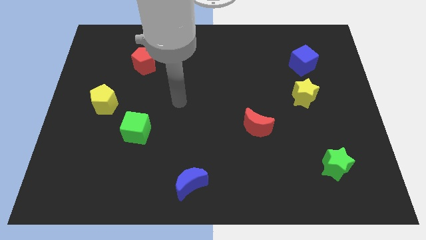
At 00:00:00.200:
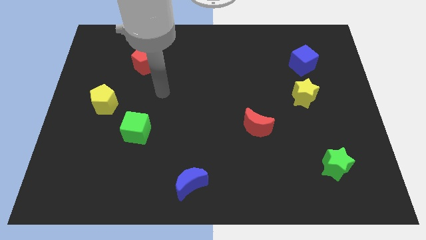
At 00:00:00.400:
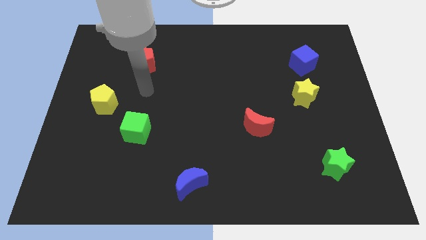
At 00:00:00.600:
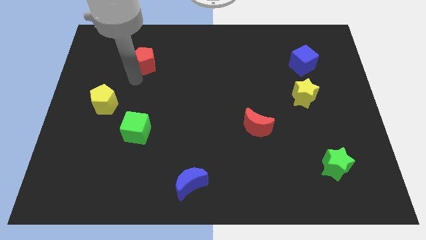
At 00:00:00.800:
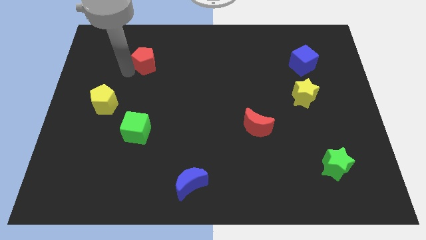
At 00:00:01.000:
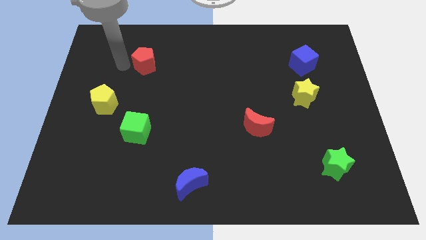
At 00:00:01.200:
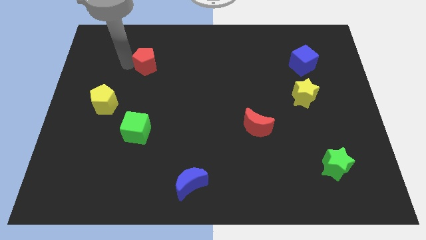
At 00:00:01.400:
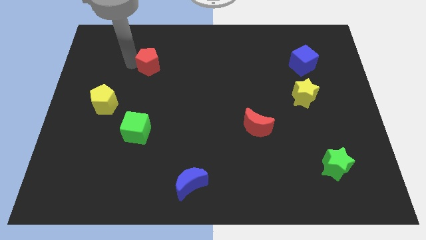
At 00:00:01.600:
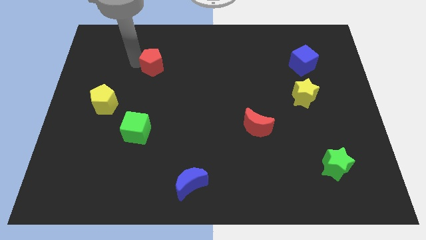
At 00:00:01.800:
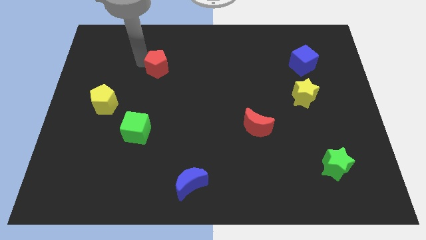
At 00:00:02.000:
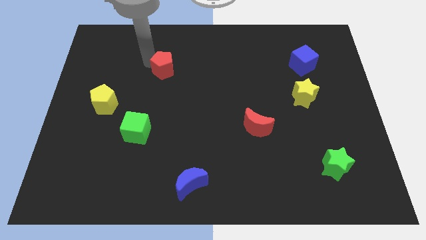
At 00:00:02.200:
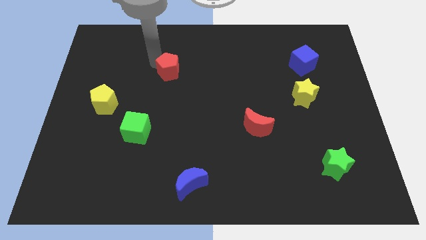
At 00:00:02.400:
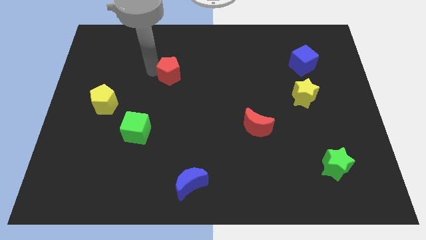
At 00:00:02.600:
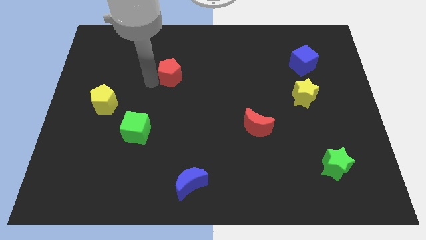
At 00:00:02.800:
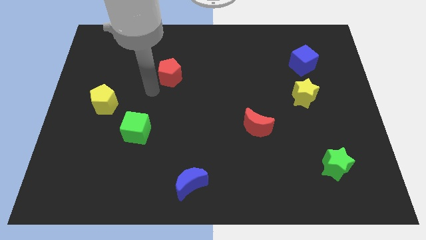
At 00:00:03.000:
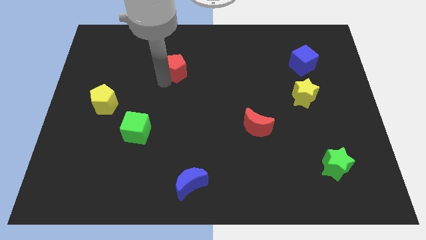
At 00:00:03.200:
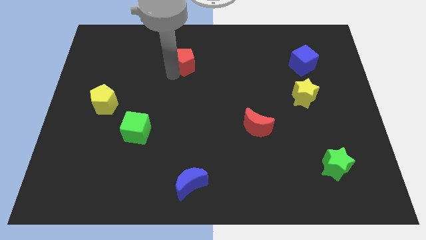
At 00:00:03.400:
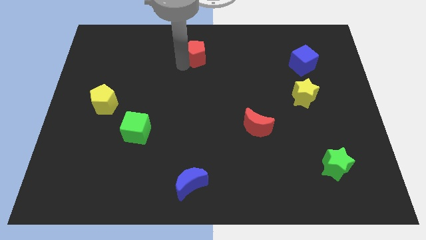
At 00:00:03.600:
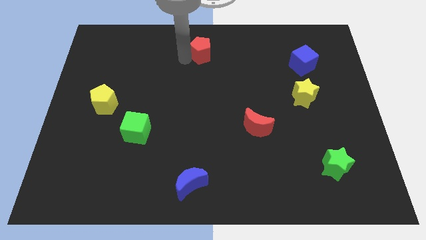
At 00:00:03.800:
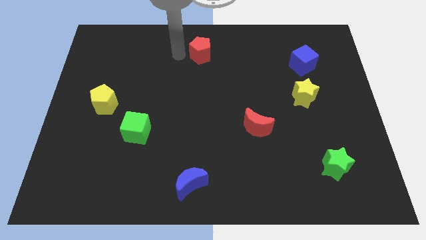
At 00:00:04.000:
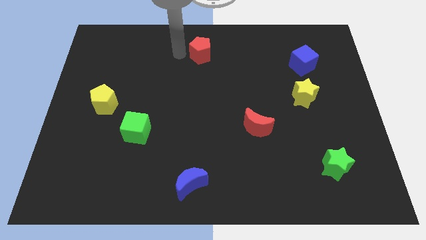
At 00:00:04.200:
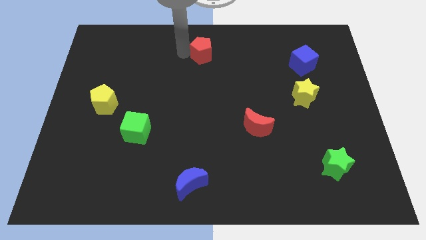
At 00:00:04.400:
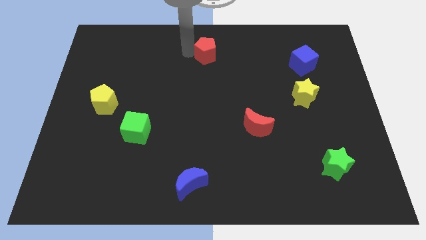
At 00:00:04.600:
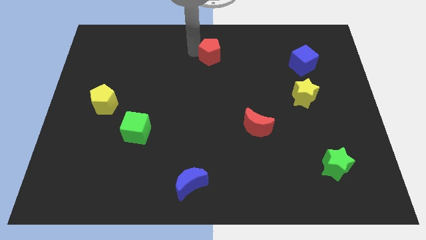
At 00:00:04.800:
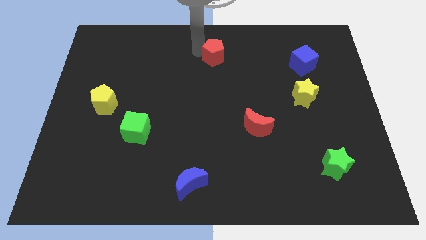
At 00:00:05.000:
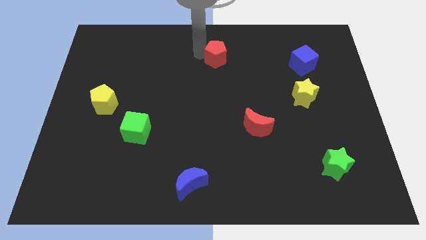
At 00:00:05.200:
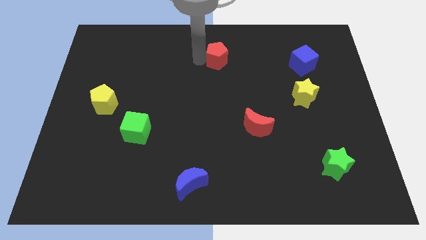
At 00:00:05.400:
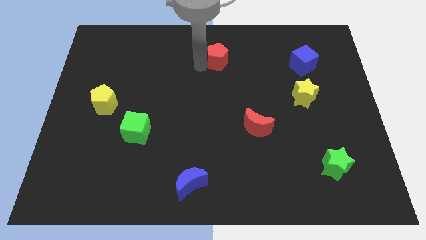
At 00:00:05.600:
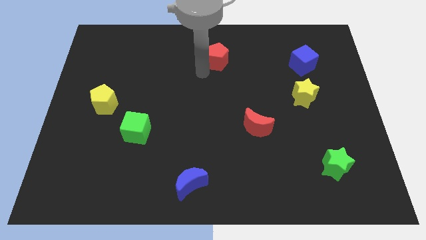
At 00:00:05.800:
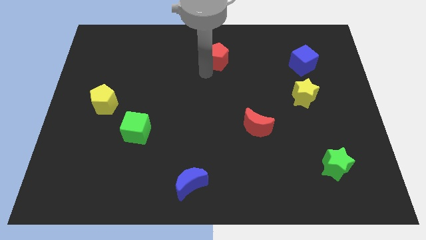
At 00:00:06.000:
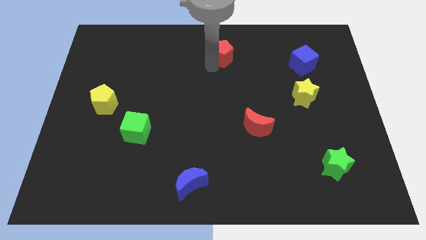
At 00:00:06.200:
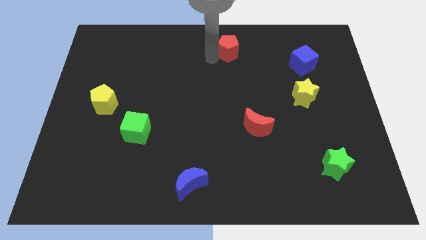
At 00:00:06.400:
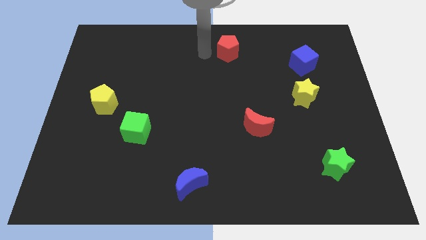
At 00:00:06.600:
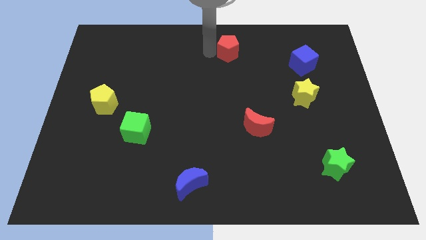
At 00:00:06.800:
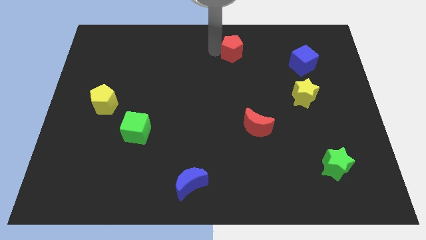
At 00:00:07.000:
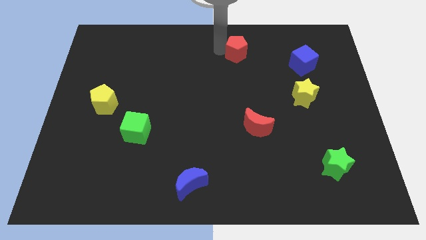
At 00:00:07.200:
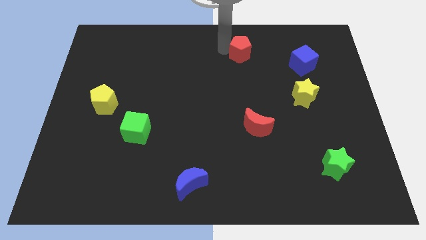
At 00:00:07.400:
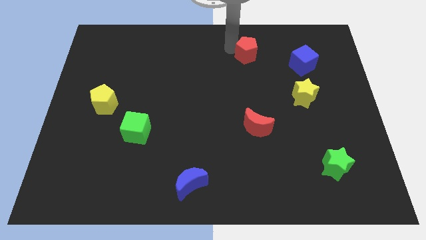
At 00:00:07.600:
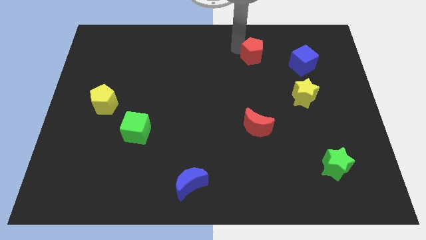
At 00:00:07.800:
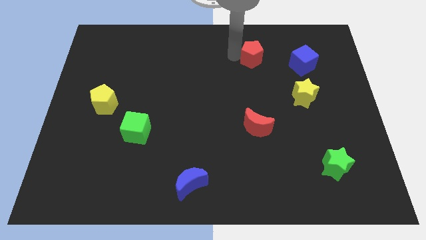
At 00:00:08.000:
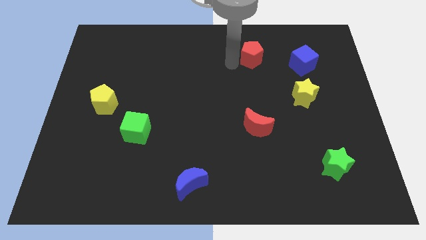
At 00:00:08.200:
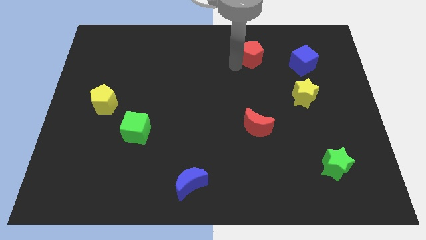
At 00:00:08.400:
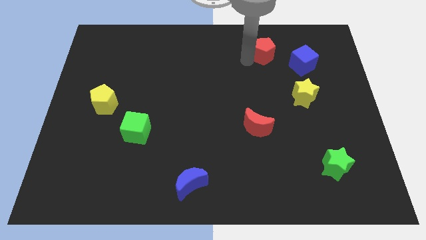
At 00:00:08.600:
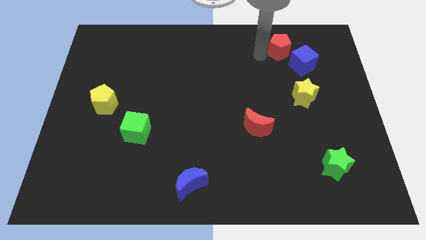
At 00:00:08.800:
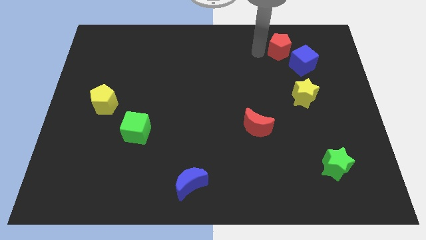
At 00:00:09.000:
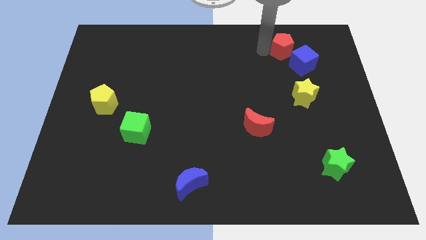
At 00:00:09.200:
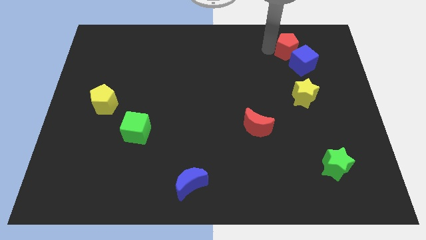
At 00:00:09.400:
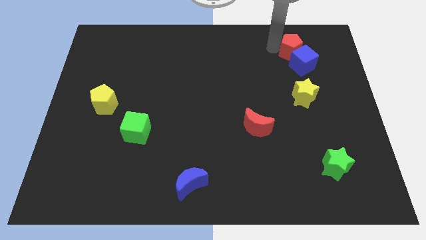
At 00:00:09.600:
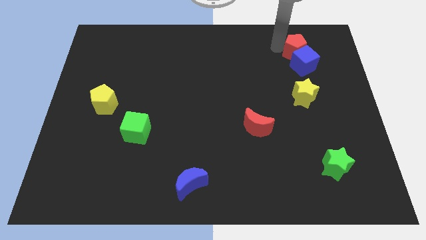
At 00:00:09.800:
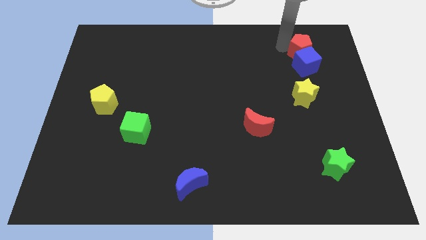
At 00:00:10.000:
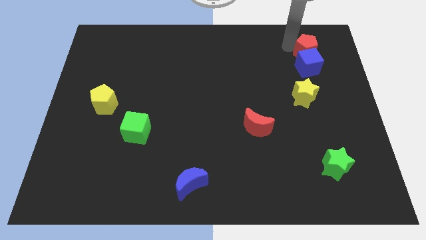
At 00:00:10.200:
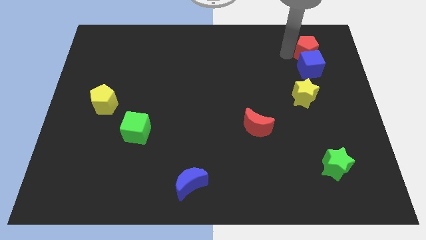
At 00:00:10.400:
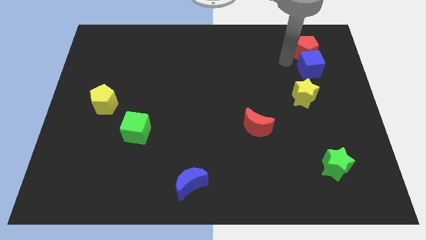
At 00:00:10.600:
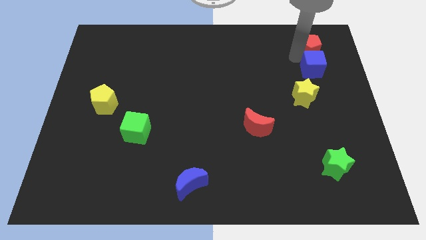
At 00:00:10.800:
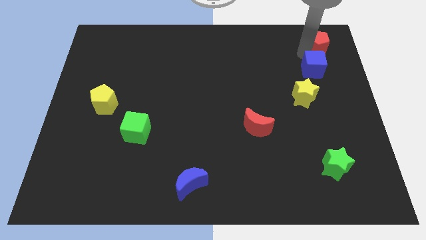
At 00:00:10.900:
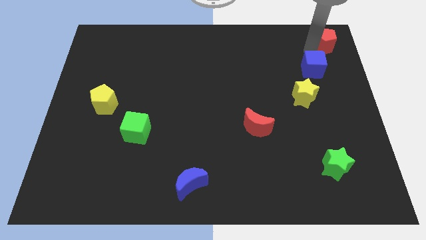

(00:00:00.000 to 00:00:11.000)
move the red pentagon to the top right of the board

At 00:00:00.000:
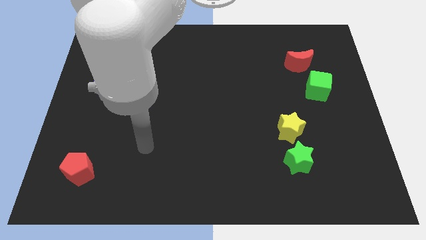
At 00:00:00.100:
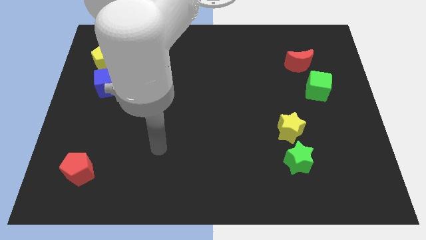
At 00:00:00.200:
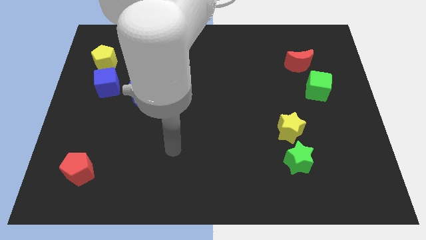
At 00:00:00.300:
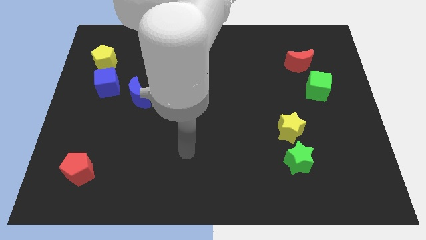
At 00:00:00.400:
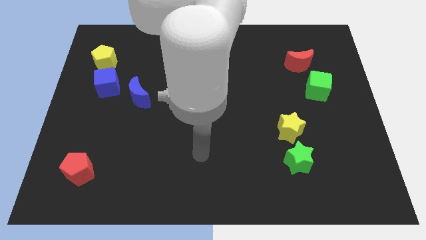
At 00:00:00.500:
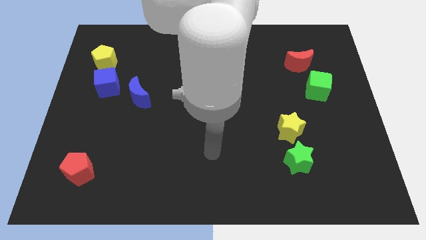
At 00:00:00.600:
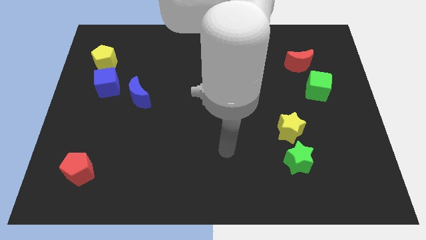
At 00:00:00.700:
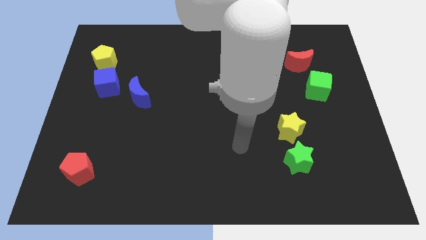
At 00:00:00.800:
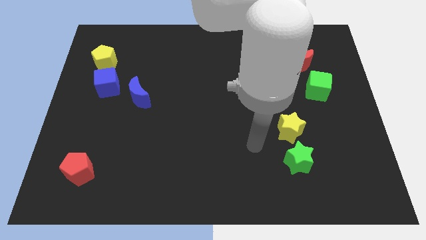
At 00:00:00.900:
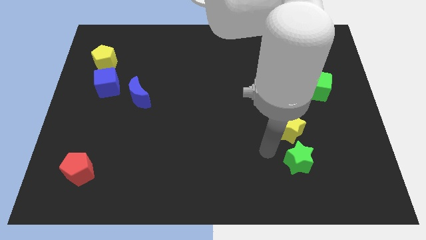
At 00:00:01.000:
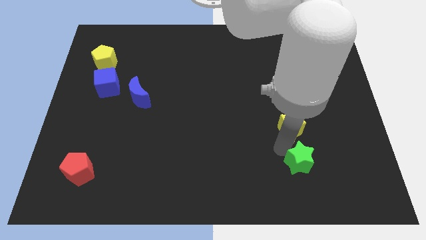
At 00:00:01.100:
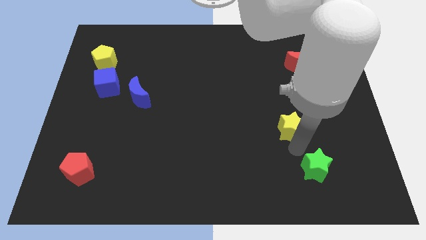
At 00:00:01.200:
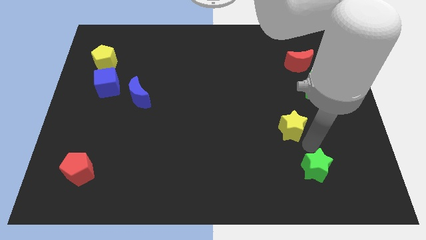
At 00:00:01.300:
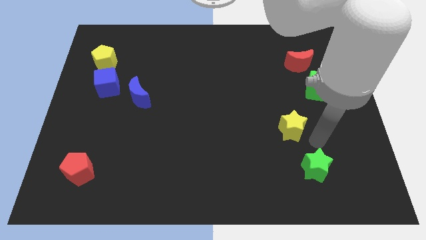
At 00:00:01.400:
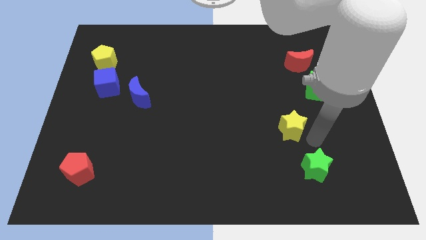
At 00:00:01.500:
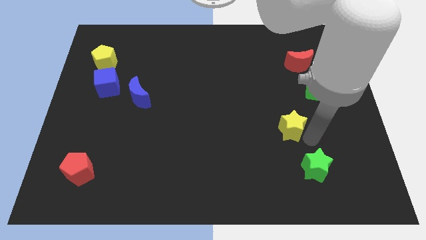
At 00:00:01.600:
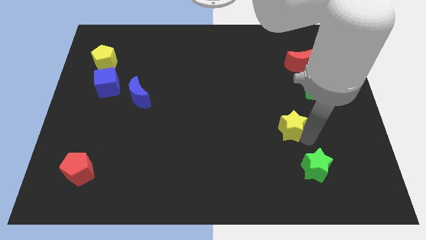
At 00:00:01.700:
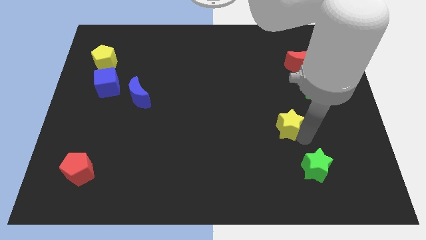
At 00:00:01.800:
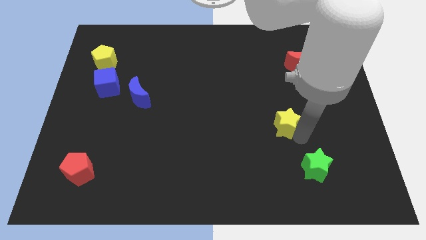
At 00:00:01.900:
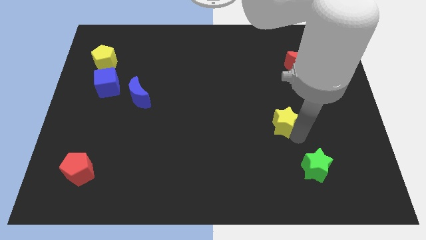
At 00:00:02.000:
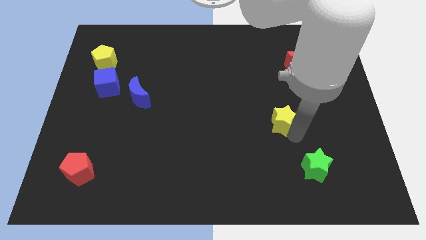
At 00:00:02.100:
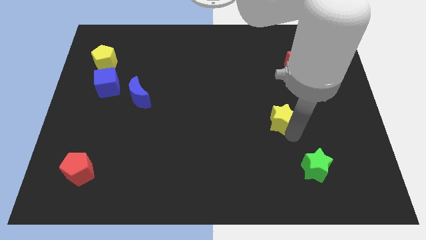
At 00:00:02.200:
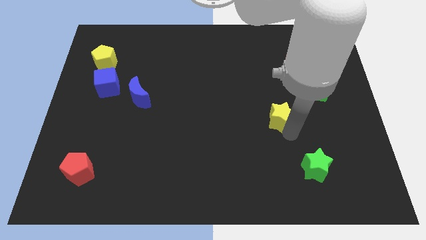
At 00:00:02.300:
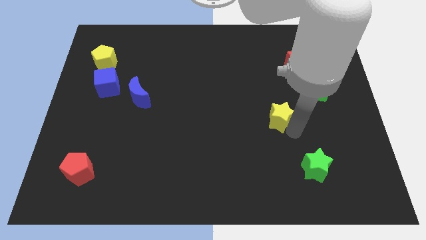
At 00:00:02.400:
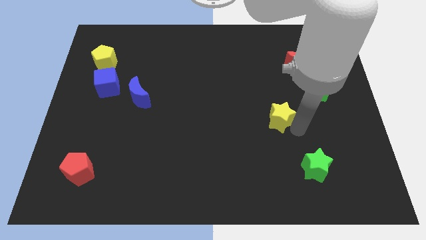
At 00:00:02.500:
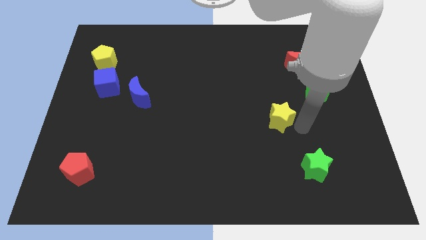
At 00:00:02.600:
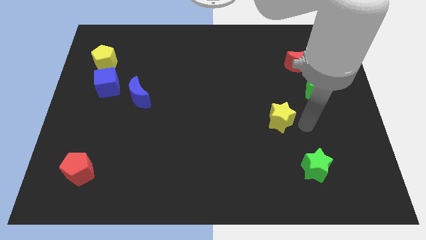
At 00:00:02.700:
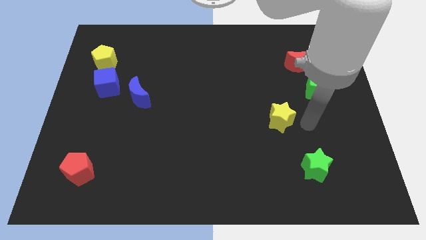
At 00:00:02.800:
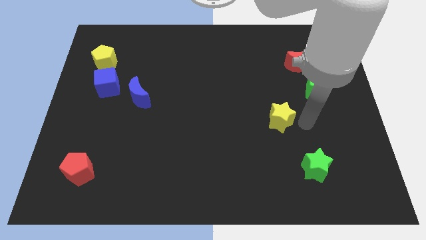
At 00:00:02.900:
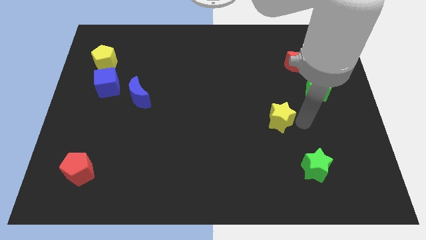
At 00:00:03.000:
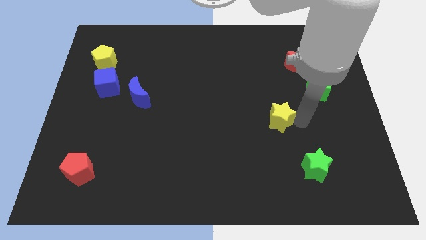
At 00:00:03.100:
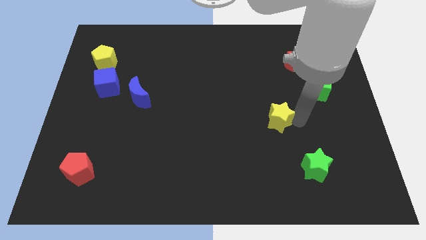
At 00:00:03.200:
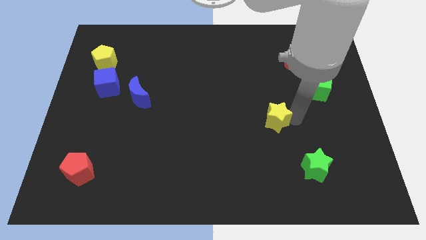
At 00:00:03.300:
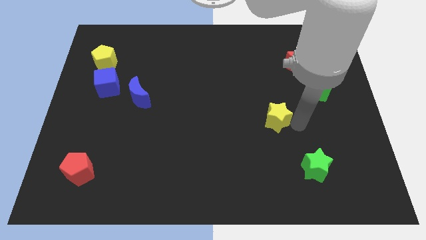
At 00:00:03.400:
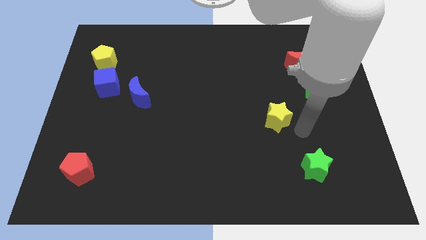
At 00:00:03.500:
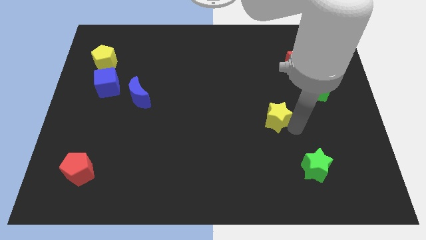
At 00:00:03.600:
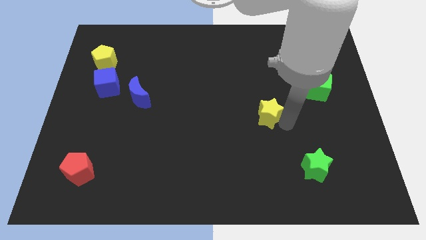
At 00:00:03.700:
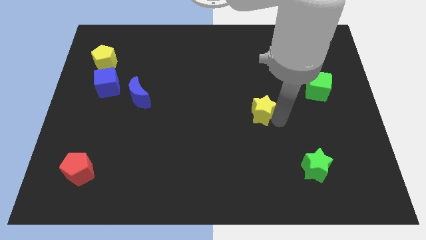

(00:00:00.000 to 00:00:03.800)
put the yellow star to the middle
